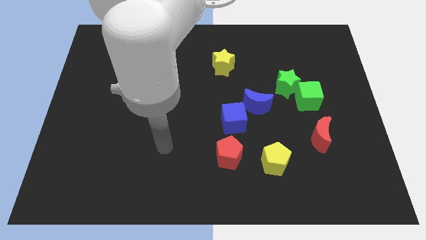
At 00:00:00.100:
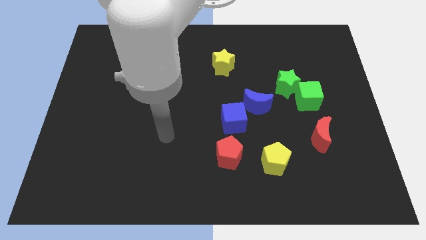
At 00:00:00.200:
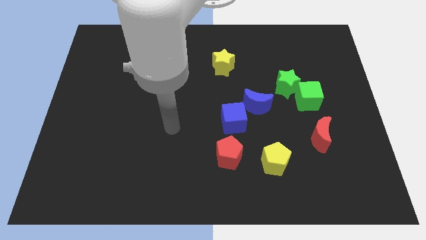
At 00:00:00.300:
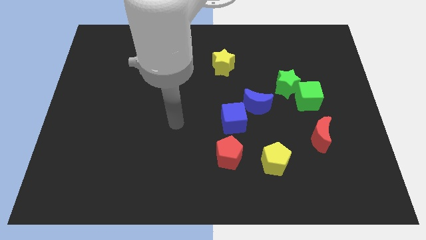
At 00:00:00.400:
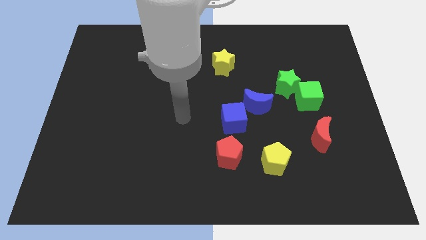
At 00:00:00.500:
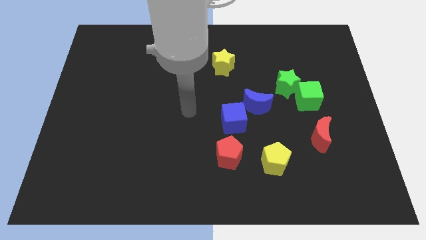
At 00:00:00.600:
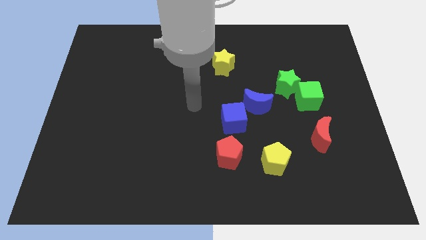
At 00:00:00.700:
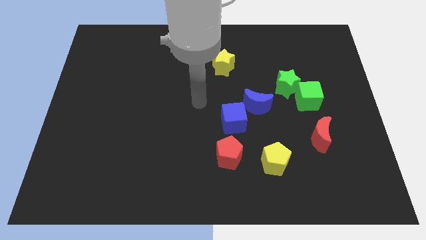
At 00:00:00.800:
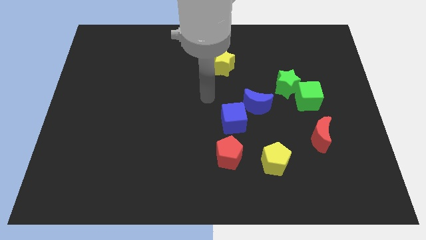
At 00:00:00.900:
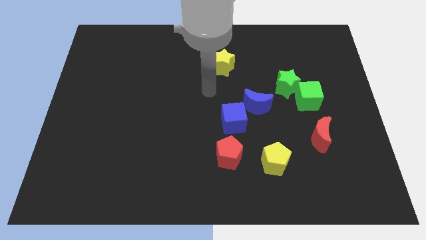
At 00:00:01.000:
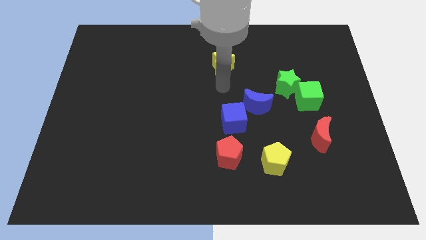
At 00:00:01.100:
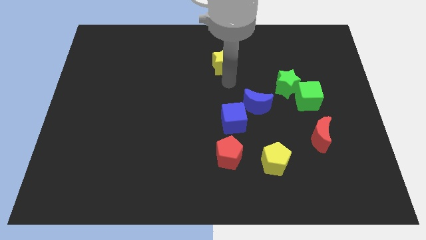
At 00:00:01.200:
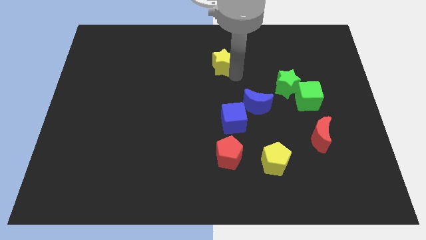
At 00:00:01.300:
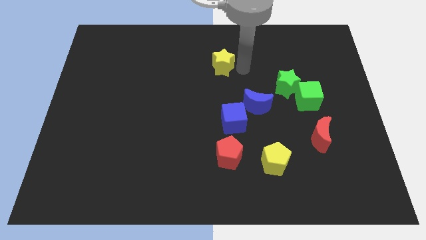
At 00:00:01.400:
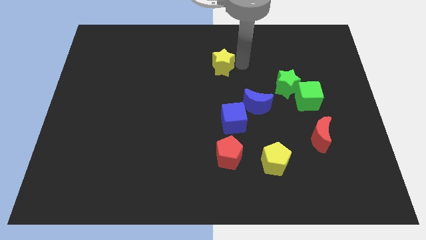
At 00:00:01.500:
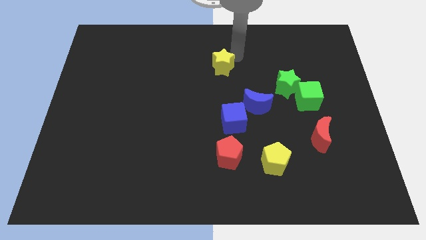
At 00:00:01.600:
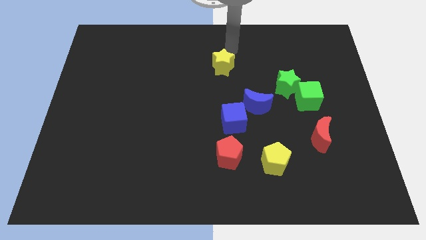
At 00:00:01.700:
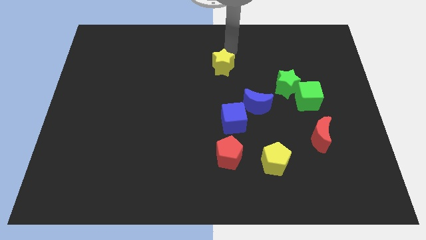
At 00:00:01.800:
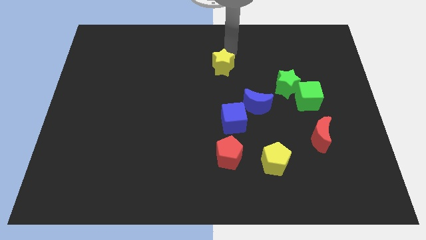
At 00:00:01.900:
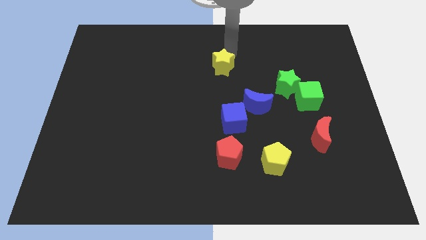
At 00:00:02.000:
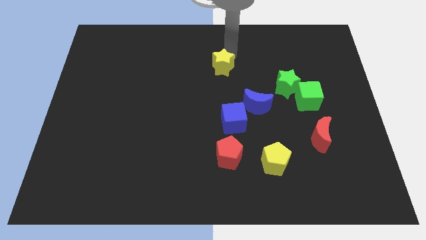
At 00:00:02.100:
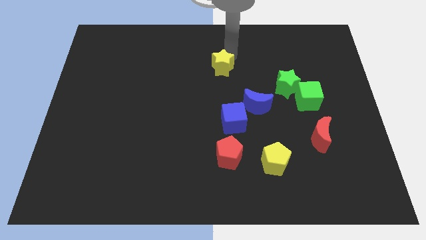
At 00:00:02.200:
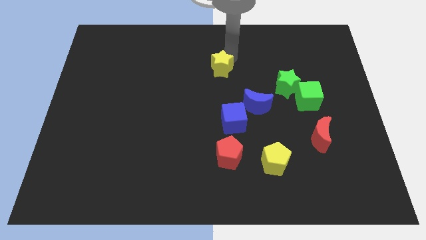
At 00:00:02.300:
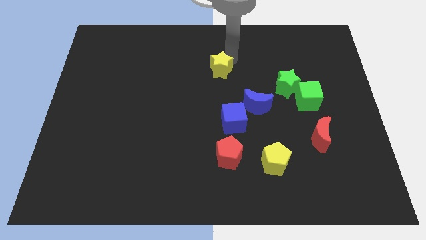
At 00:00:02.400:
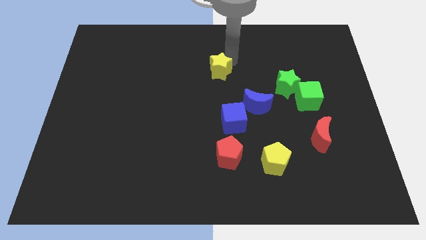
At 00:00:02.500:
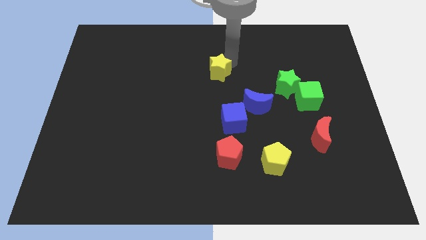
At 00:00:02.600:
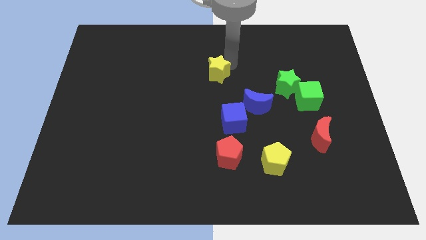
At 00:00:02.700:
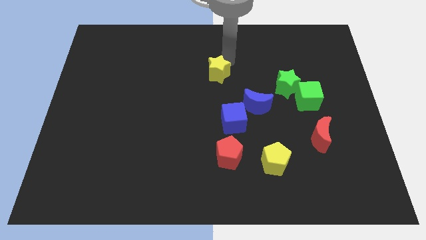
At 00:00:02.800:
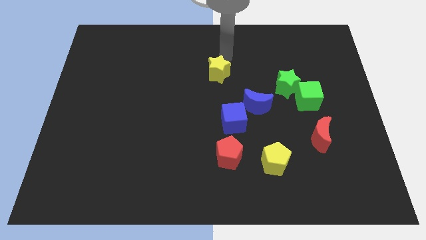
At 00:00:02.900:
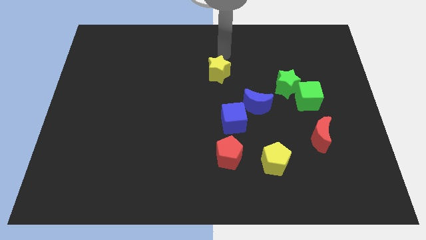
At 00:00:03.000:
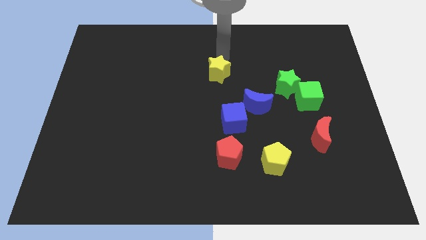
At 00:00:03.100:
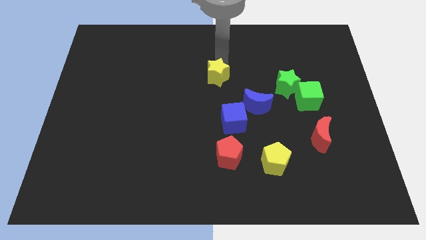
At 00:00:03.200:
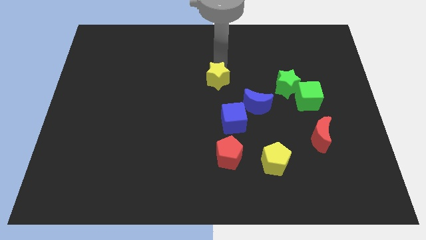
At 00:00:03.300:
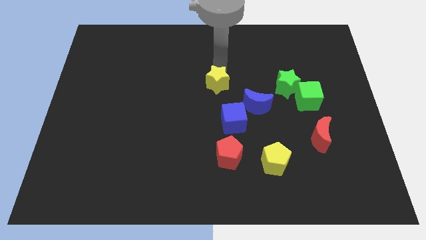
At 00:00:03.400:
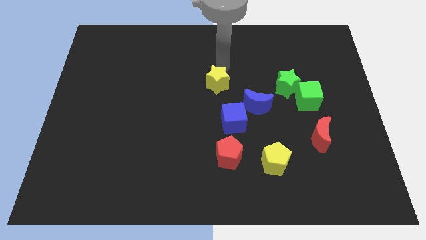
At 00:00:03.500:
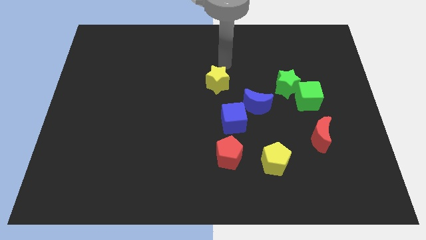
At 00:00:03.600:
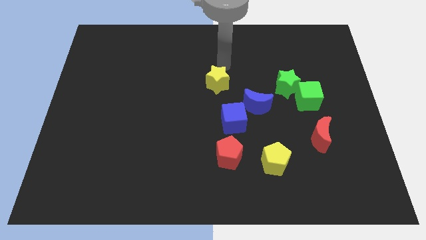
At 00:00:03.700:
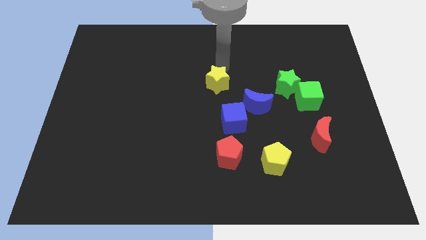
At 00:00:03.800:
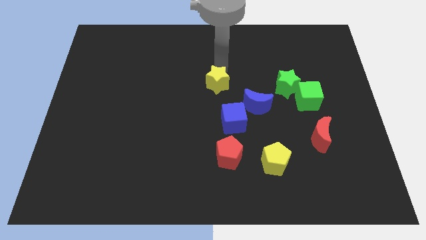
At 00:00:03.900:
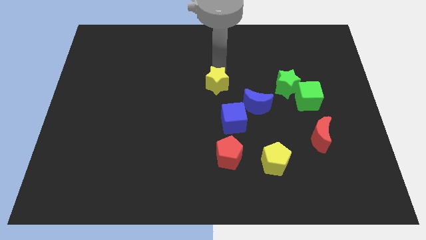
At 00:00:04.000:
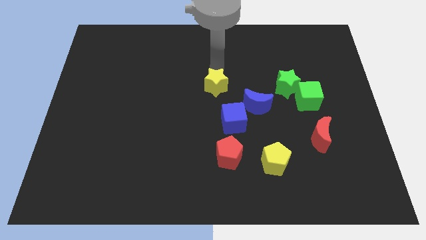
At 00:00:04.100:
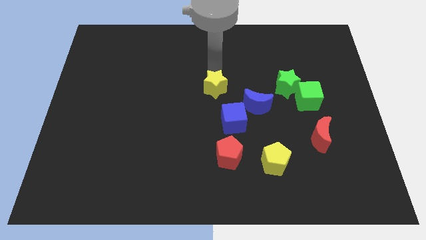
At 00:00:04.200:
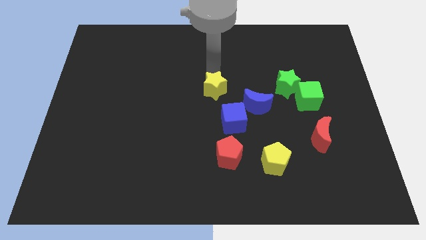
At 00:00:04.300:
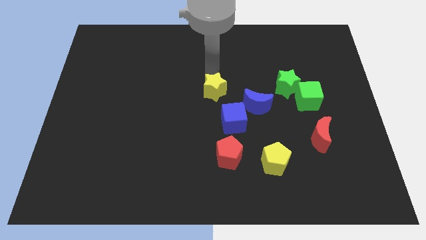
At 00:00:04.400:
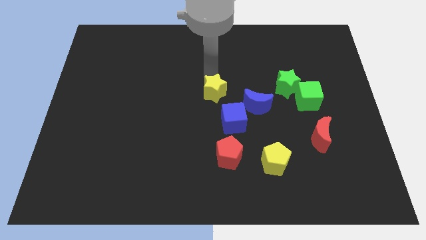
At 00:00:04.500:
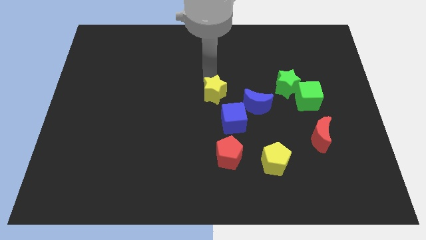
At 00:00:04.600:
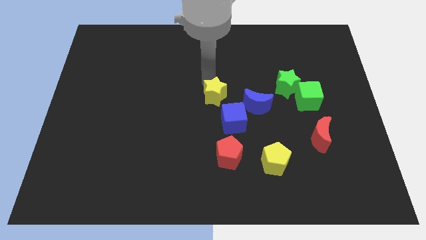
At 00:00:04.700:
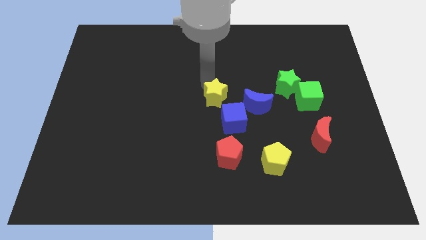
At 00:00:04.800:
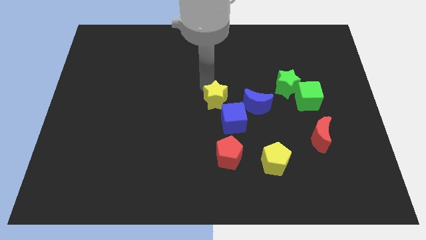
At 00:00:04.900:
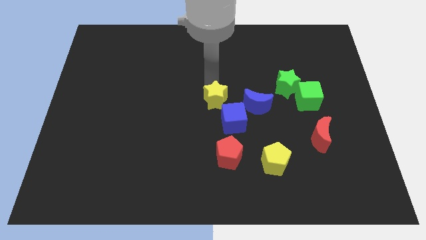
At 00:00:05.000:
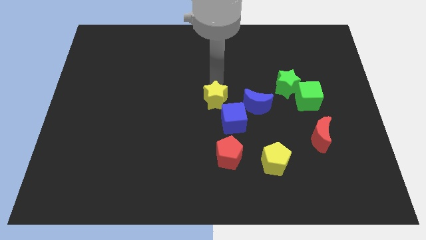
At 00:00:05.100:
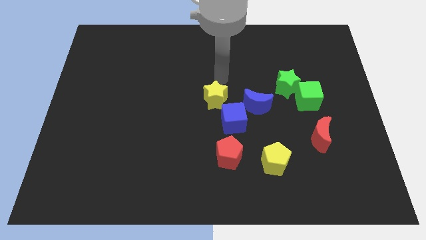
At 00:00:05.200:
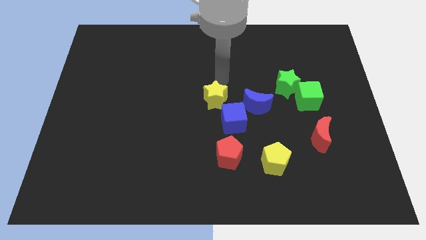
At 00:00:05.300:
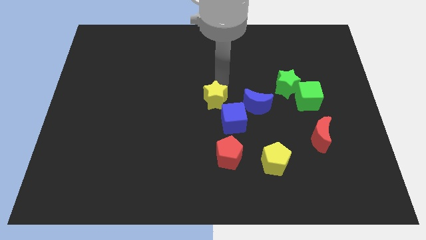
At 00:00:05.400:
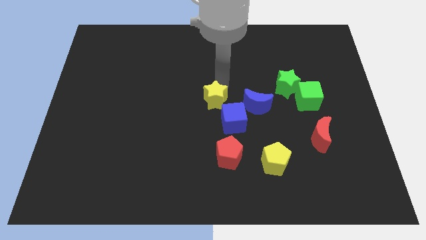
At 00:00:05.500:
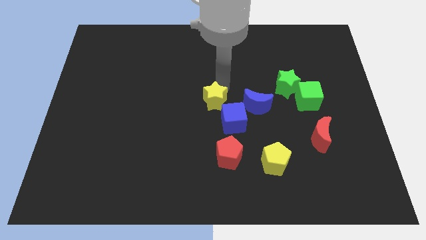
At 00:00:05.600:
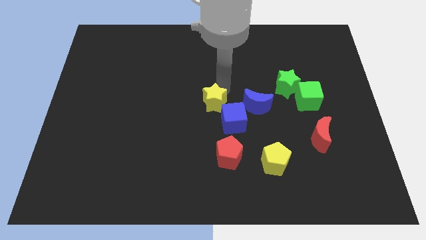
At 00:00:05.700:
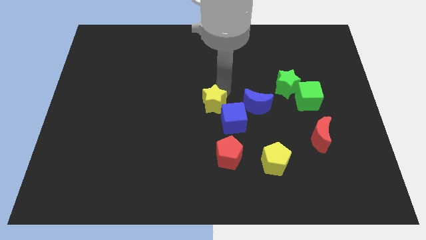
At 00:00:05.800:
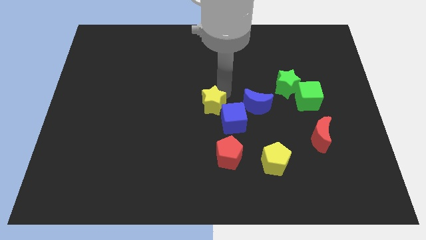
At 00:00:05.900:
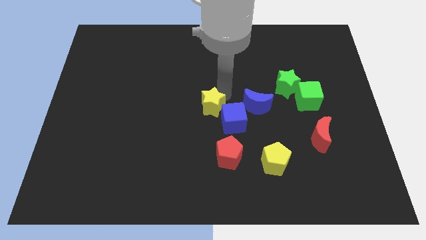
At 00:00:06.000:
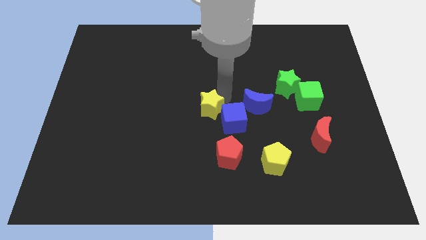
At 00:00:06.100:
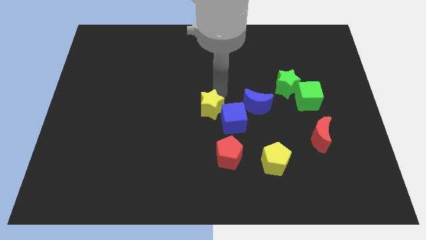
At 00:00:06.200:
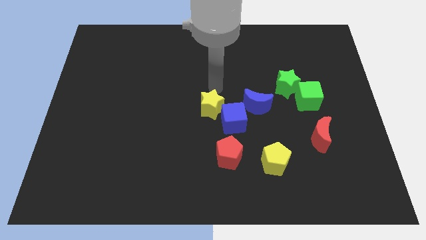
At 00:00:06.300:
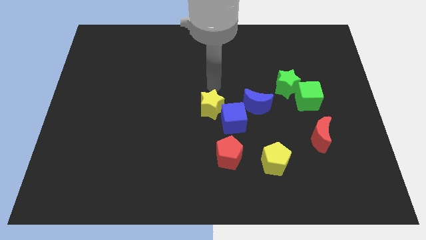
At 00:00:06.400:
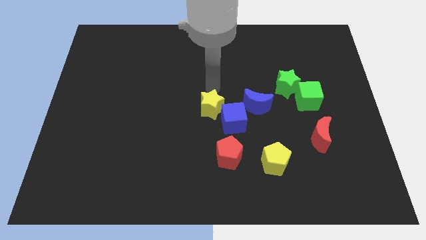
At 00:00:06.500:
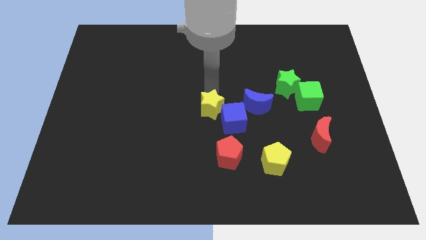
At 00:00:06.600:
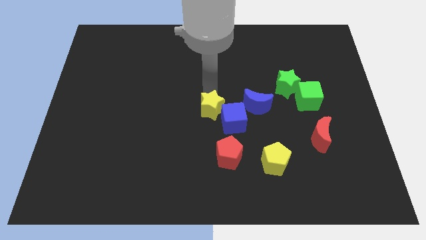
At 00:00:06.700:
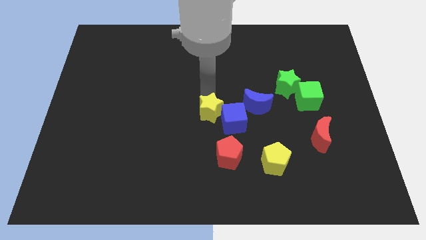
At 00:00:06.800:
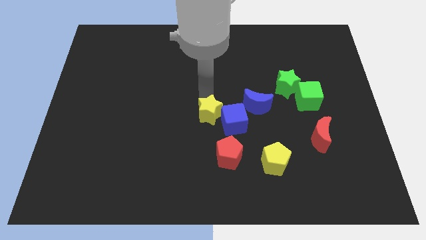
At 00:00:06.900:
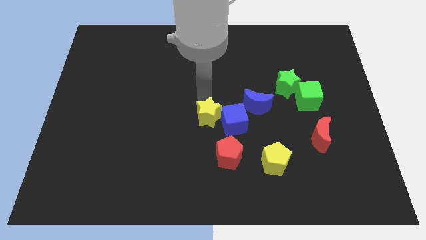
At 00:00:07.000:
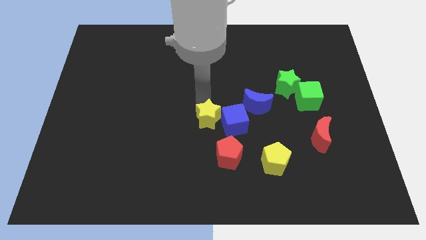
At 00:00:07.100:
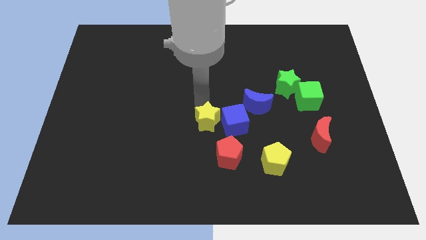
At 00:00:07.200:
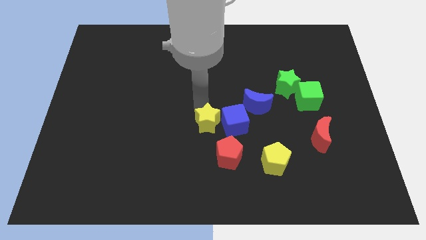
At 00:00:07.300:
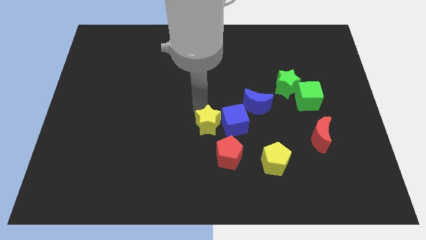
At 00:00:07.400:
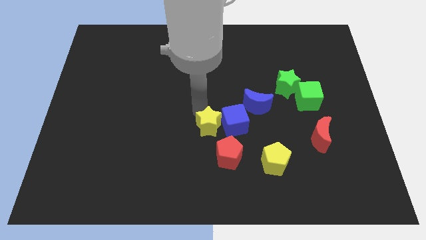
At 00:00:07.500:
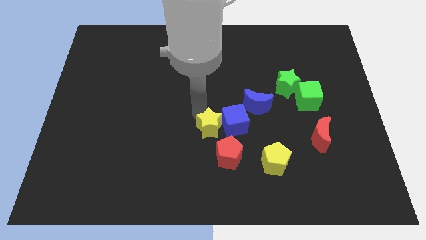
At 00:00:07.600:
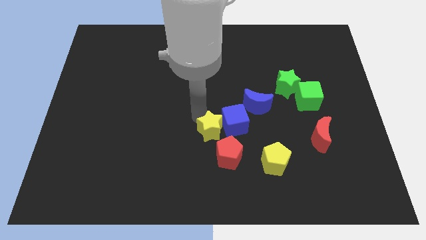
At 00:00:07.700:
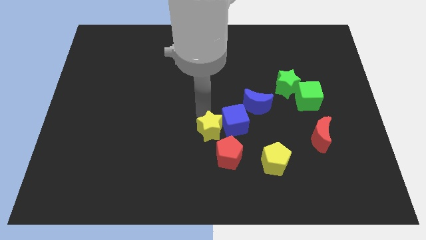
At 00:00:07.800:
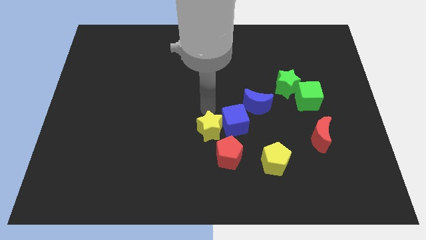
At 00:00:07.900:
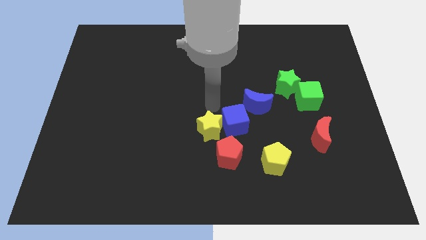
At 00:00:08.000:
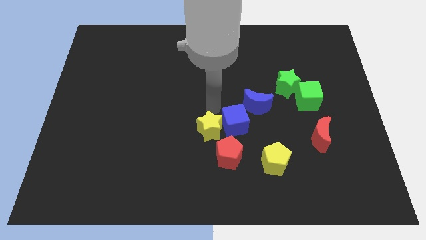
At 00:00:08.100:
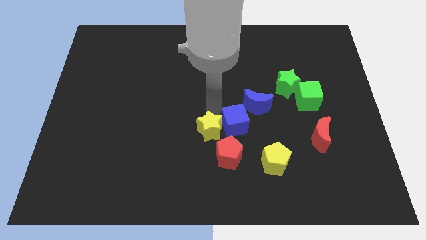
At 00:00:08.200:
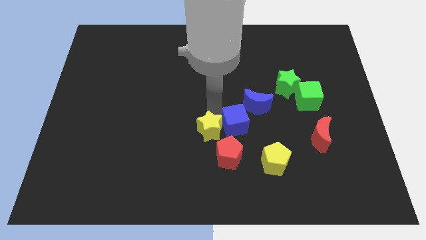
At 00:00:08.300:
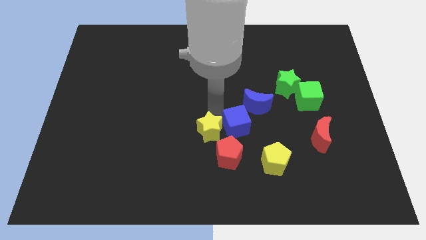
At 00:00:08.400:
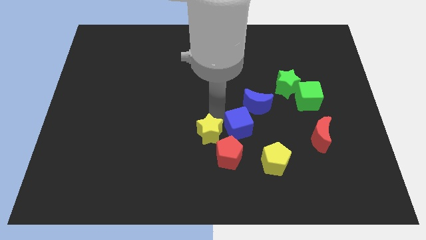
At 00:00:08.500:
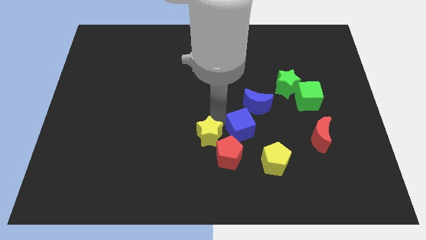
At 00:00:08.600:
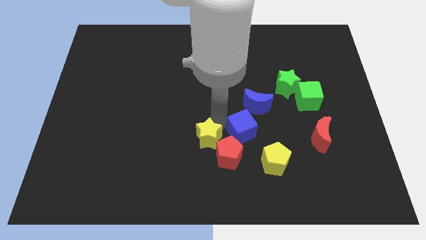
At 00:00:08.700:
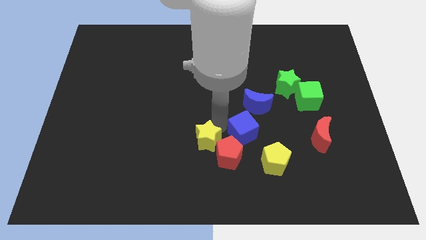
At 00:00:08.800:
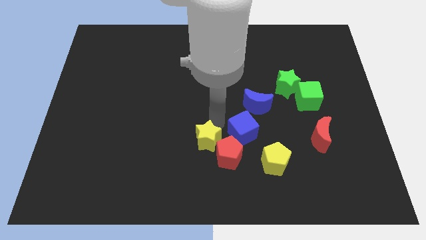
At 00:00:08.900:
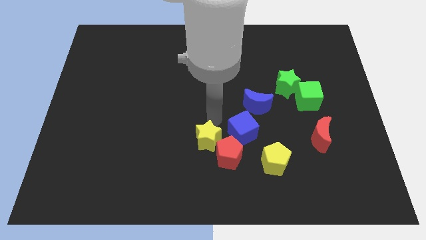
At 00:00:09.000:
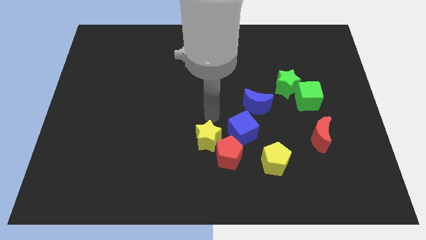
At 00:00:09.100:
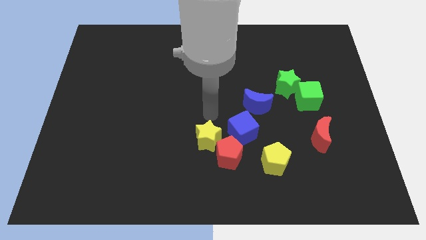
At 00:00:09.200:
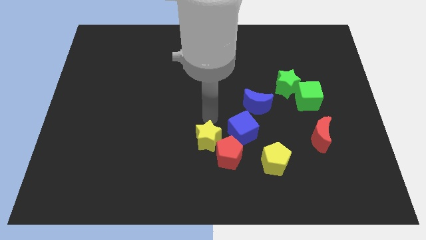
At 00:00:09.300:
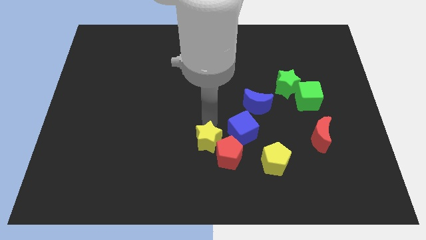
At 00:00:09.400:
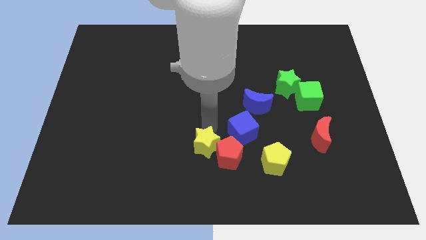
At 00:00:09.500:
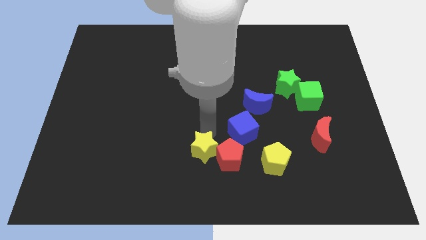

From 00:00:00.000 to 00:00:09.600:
move the yellow star to the left of the yellow pentagon
